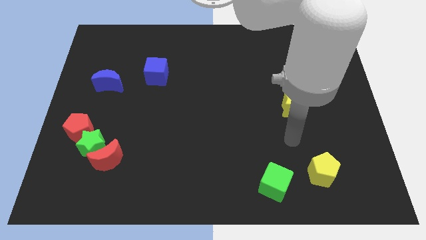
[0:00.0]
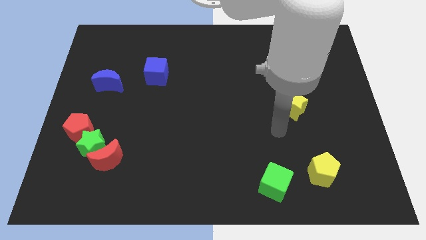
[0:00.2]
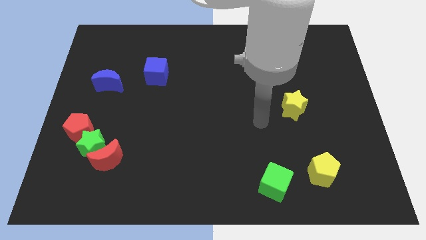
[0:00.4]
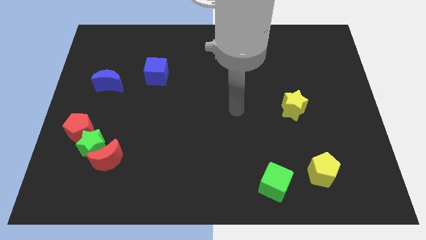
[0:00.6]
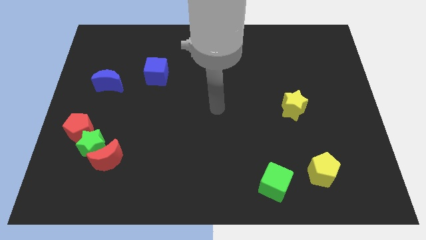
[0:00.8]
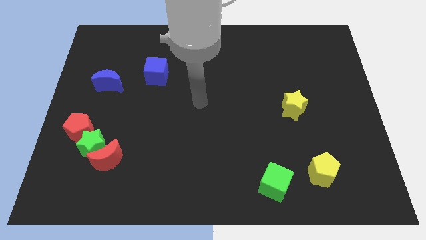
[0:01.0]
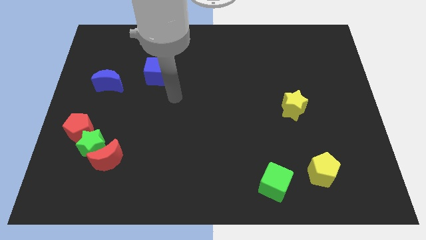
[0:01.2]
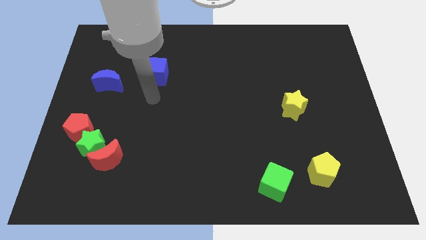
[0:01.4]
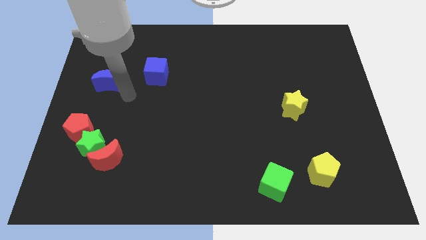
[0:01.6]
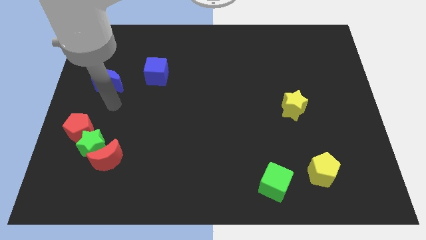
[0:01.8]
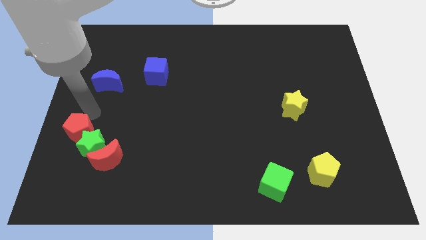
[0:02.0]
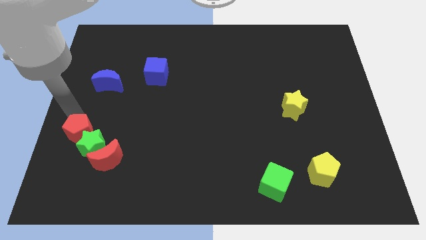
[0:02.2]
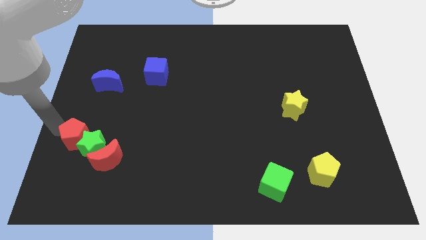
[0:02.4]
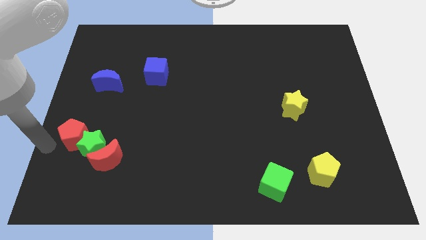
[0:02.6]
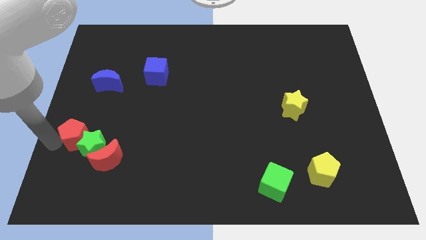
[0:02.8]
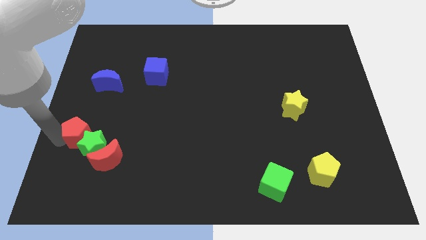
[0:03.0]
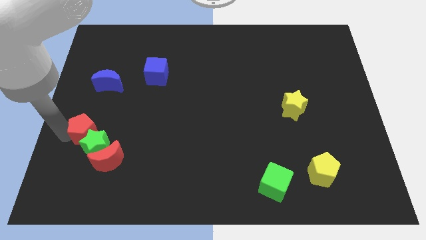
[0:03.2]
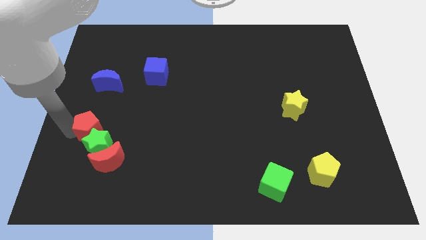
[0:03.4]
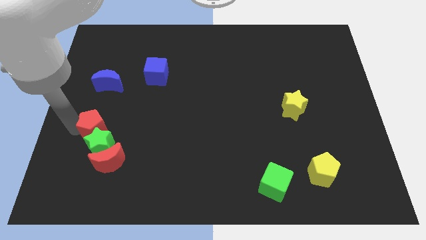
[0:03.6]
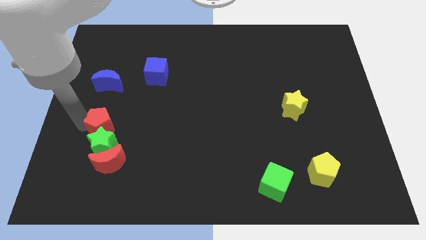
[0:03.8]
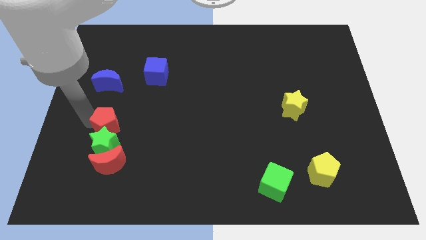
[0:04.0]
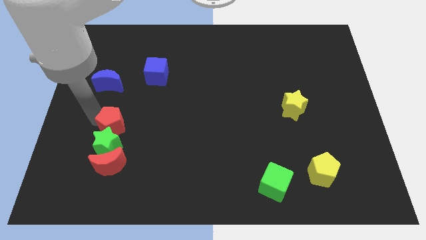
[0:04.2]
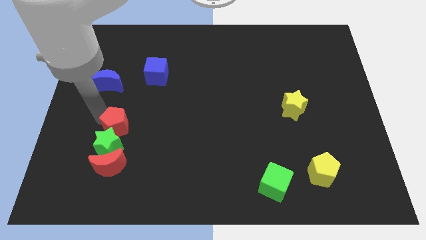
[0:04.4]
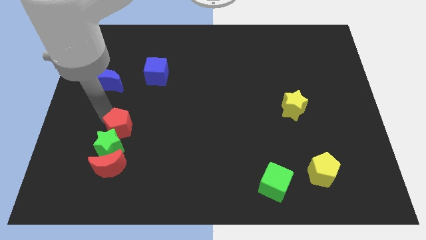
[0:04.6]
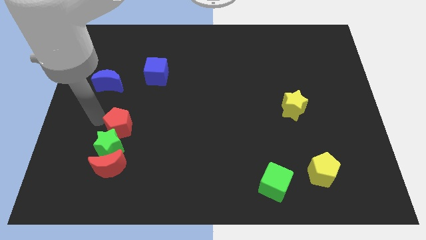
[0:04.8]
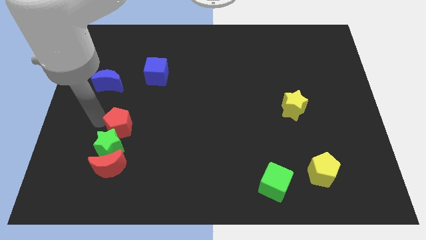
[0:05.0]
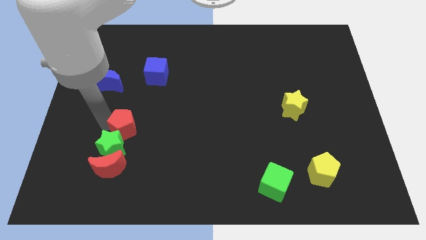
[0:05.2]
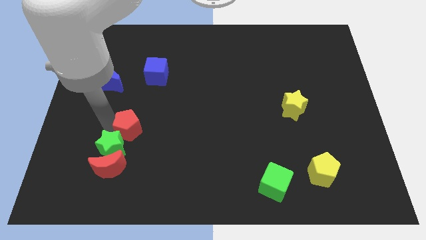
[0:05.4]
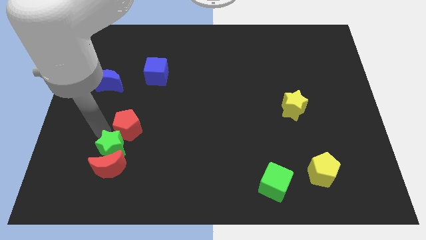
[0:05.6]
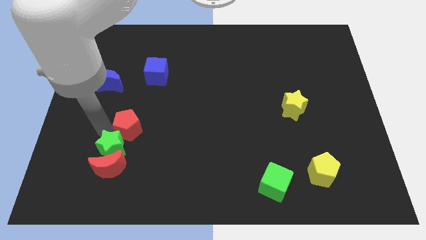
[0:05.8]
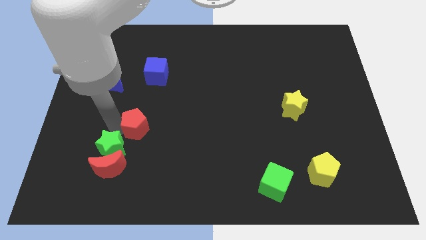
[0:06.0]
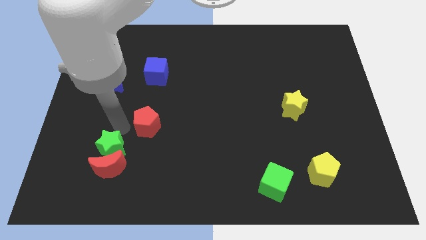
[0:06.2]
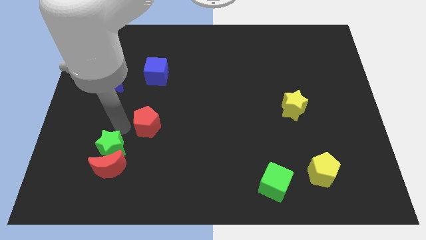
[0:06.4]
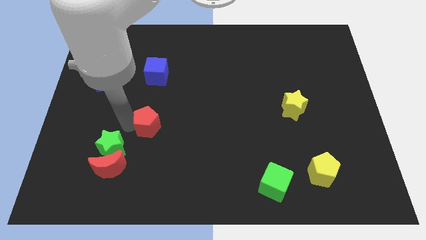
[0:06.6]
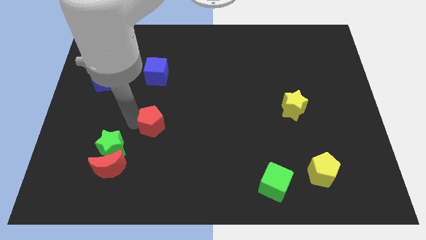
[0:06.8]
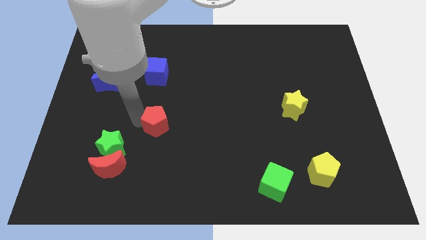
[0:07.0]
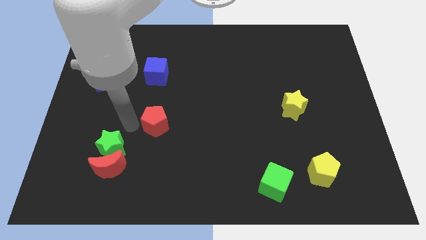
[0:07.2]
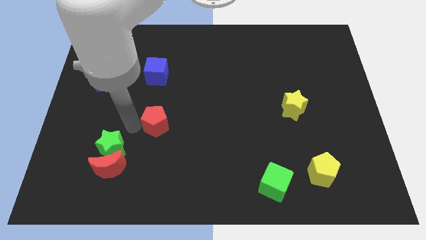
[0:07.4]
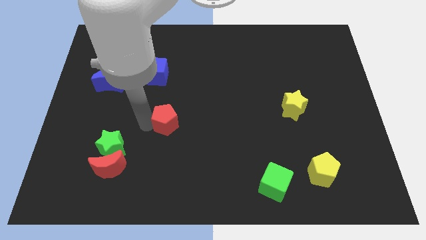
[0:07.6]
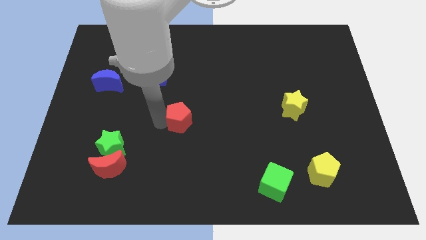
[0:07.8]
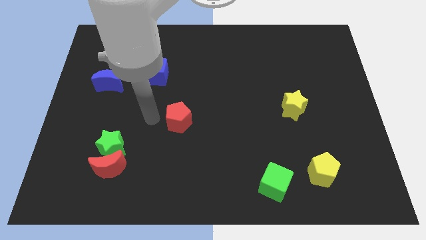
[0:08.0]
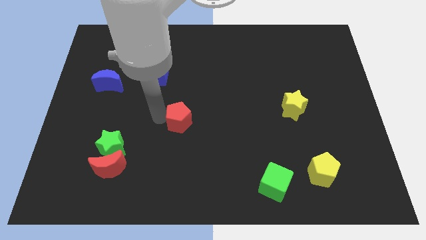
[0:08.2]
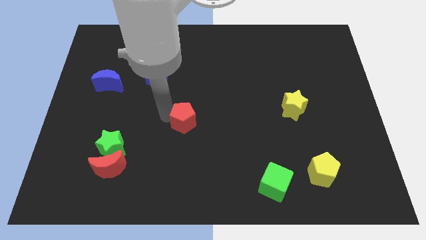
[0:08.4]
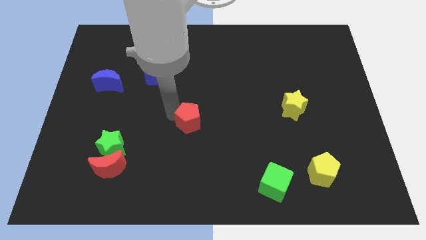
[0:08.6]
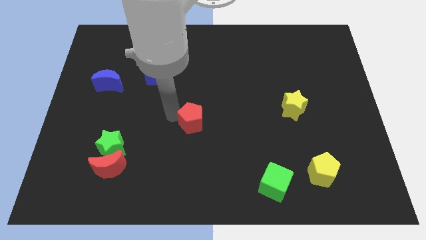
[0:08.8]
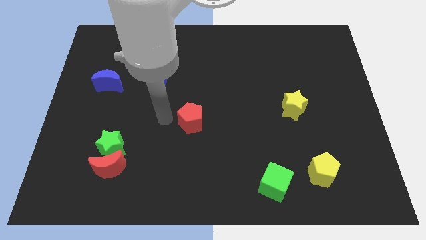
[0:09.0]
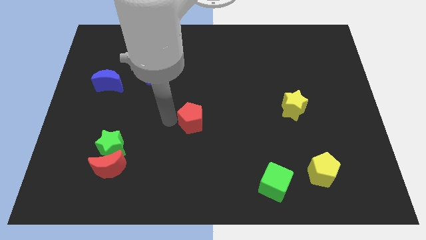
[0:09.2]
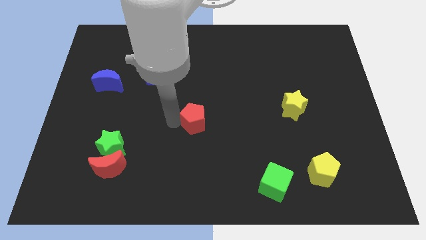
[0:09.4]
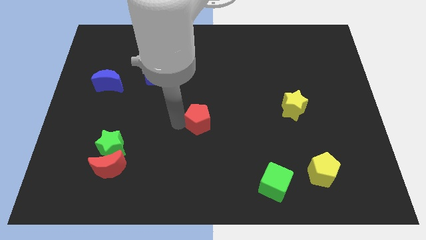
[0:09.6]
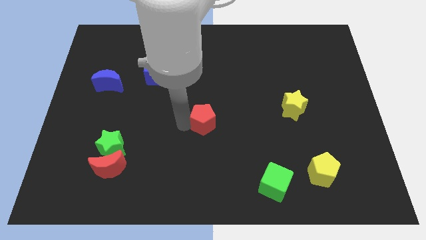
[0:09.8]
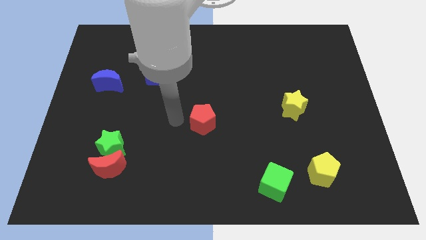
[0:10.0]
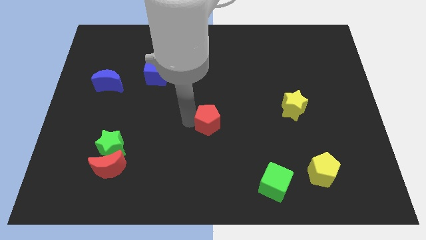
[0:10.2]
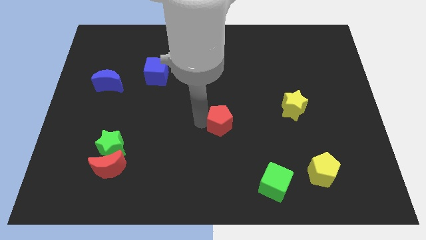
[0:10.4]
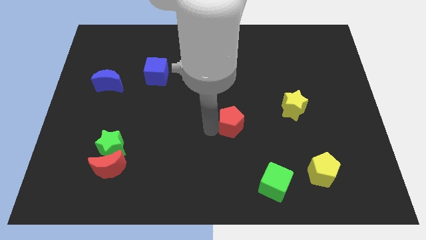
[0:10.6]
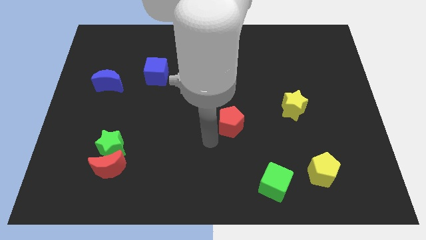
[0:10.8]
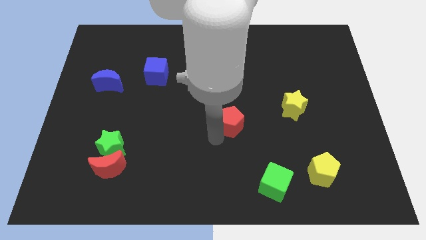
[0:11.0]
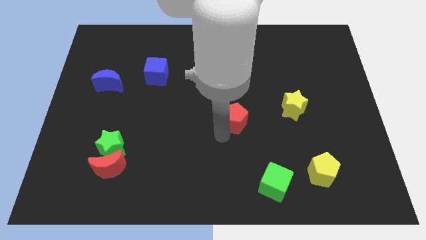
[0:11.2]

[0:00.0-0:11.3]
slide the red pentagon to the left side of the yellow star
